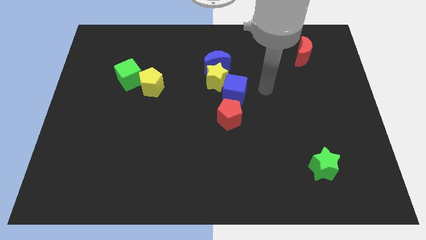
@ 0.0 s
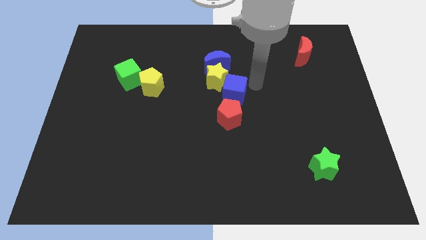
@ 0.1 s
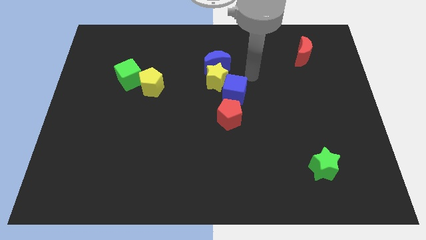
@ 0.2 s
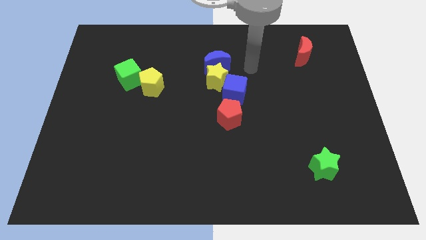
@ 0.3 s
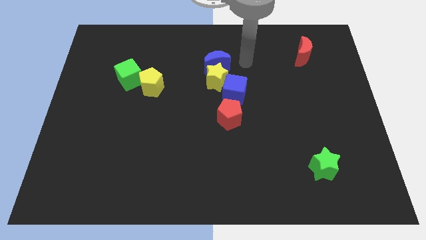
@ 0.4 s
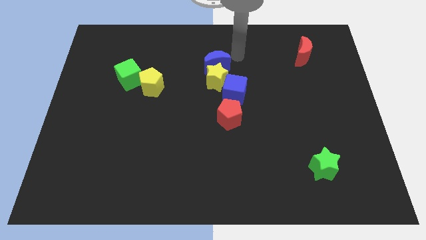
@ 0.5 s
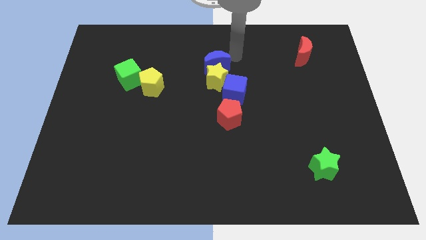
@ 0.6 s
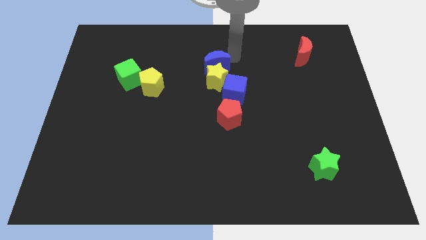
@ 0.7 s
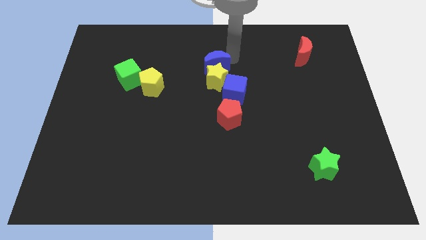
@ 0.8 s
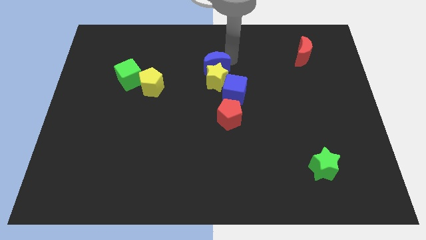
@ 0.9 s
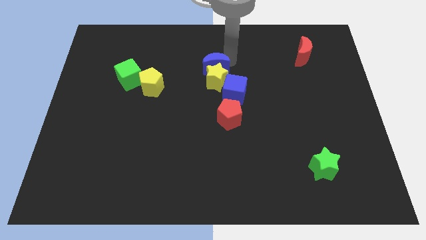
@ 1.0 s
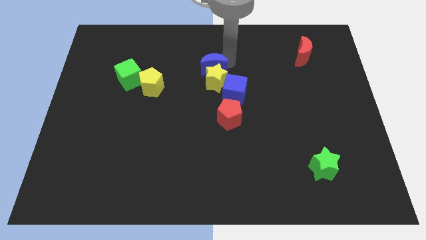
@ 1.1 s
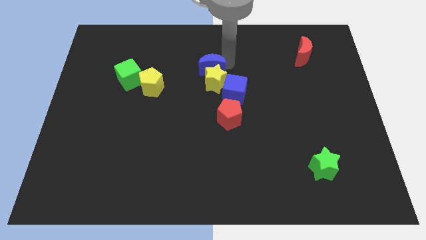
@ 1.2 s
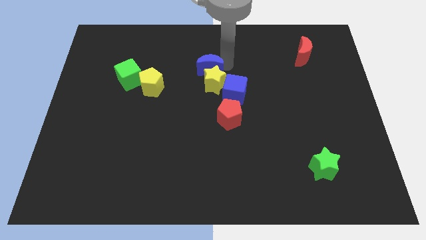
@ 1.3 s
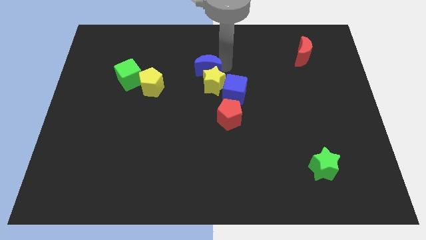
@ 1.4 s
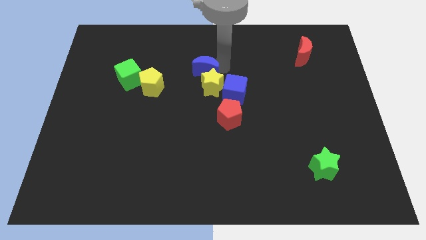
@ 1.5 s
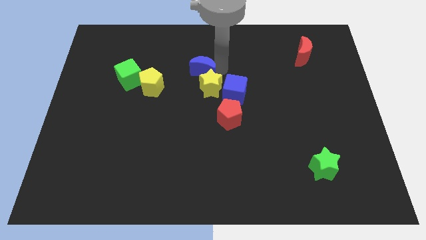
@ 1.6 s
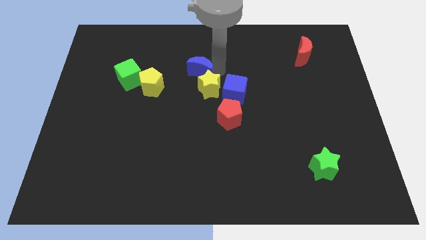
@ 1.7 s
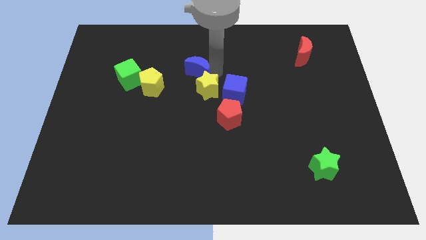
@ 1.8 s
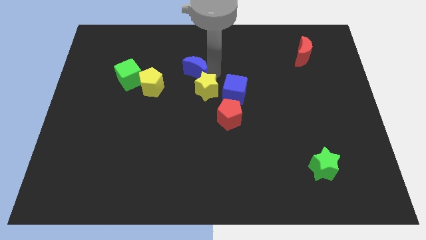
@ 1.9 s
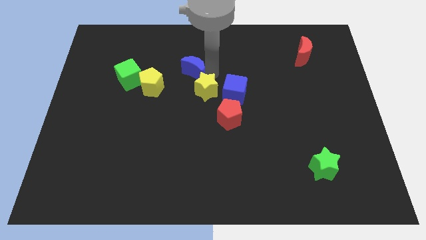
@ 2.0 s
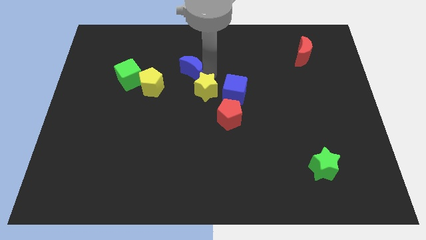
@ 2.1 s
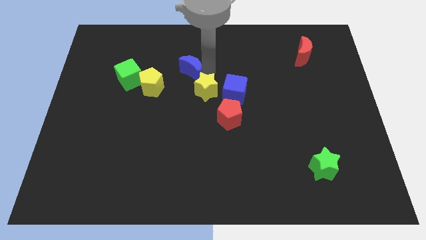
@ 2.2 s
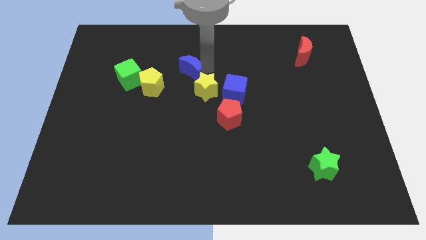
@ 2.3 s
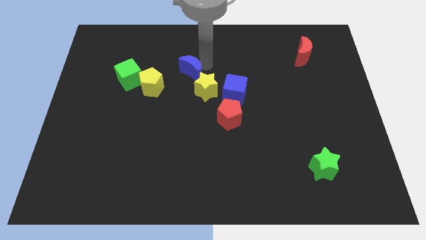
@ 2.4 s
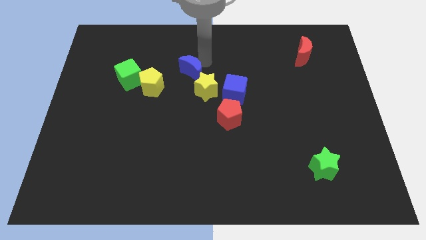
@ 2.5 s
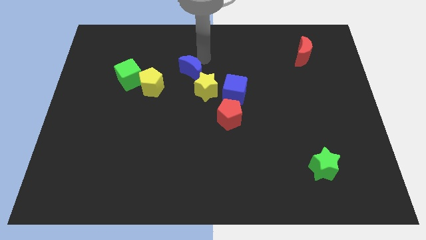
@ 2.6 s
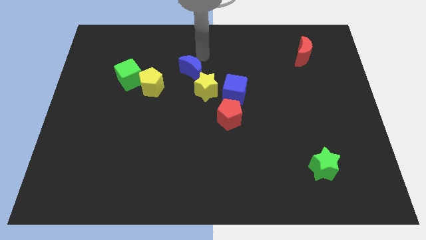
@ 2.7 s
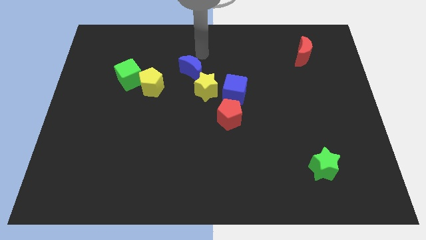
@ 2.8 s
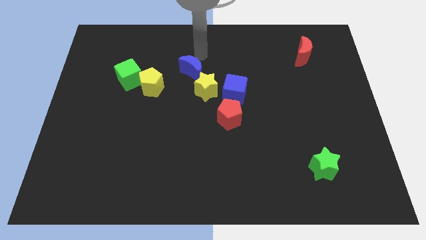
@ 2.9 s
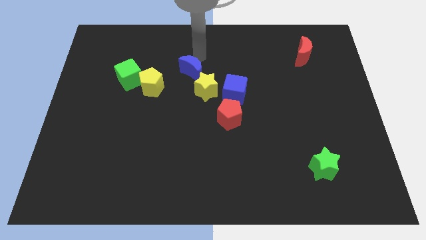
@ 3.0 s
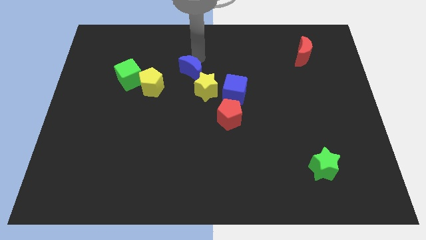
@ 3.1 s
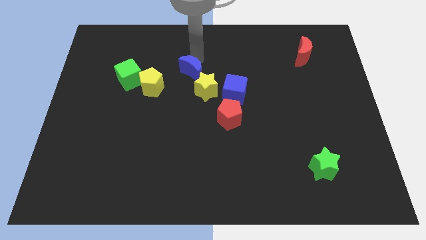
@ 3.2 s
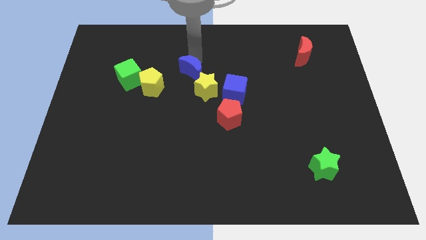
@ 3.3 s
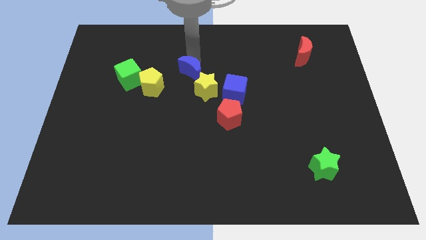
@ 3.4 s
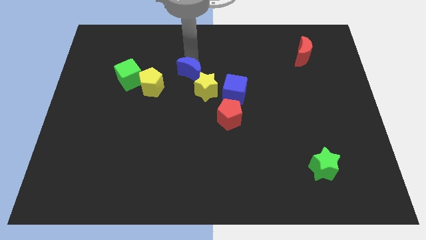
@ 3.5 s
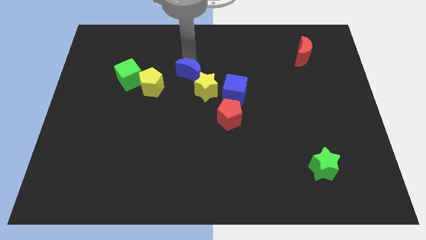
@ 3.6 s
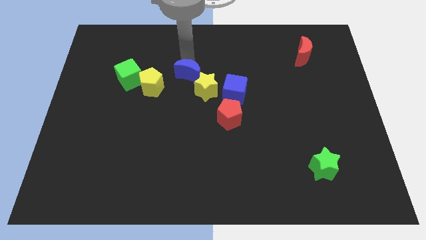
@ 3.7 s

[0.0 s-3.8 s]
push the blue moon slightly diagonally downwards and left

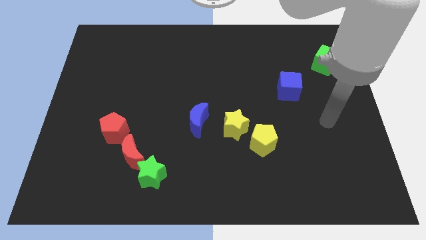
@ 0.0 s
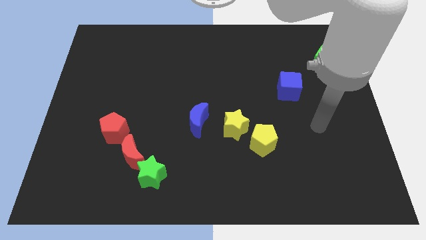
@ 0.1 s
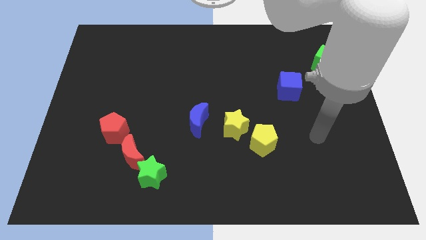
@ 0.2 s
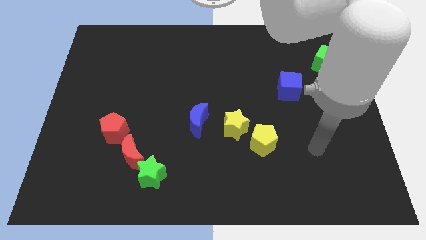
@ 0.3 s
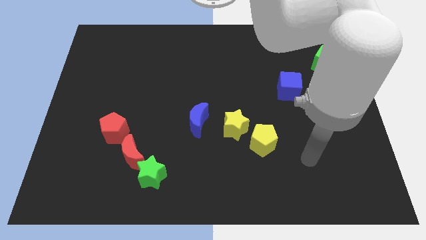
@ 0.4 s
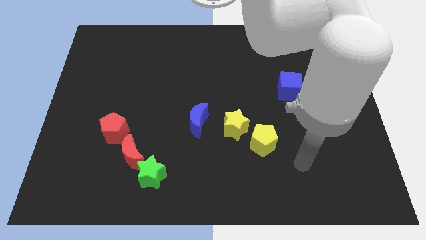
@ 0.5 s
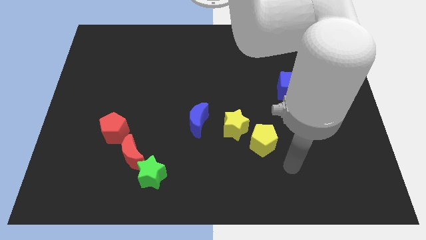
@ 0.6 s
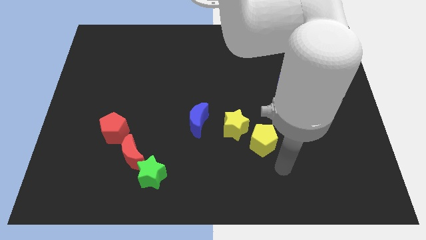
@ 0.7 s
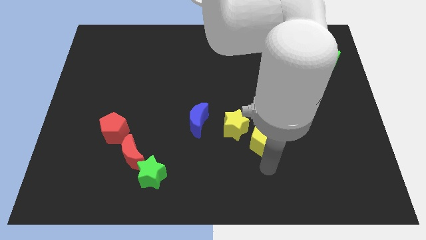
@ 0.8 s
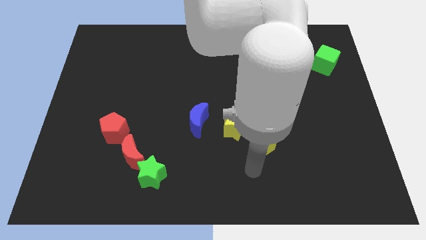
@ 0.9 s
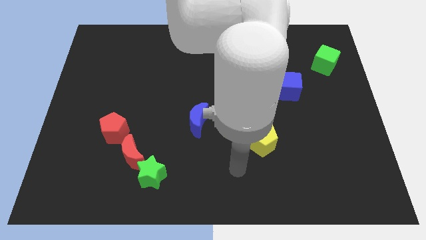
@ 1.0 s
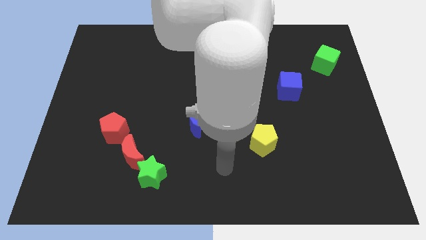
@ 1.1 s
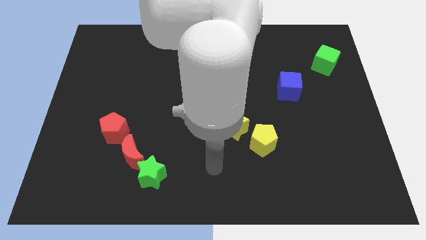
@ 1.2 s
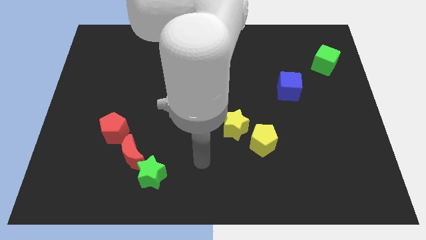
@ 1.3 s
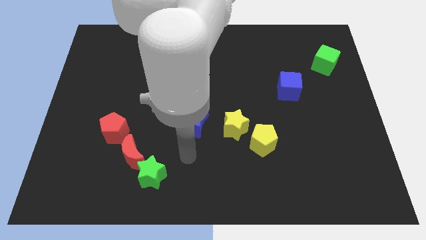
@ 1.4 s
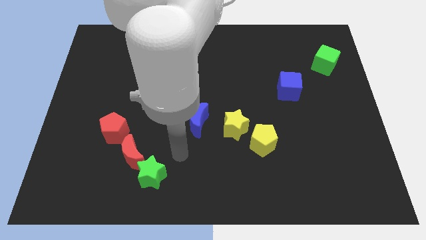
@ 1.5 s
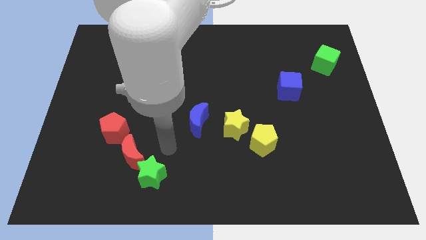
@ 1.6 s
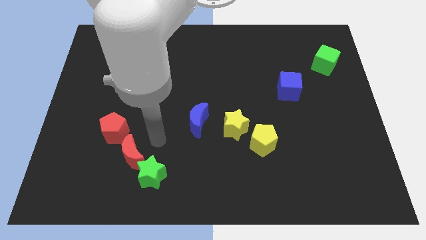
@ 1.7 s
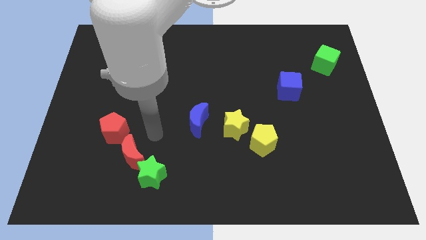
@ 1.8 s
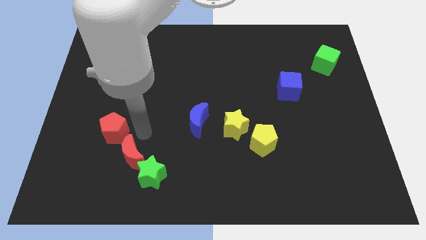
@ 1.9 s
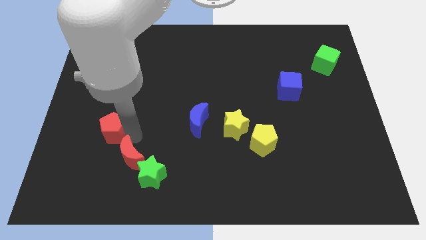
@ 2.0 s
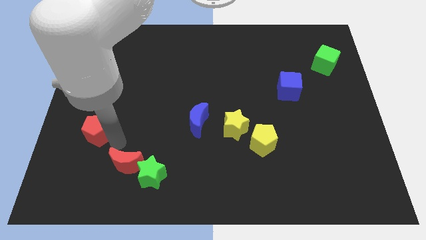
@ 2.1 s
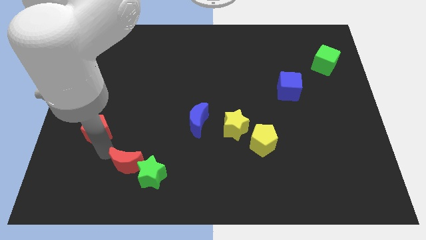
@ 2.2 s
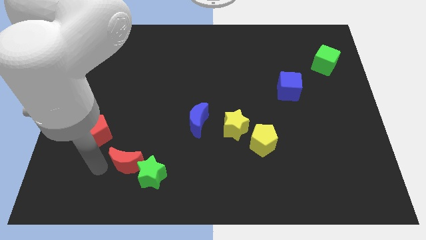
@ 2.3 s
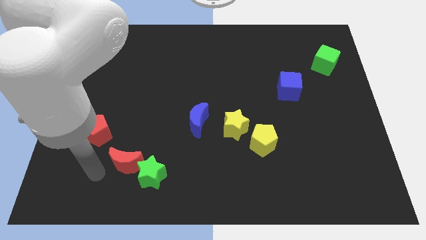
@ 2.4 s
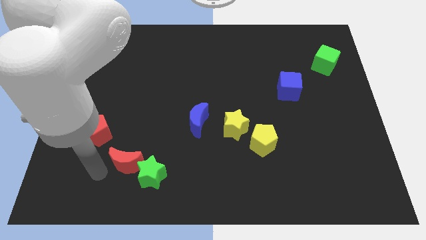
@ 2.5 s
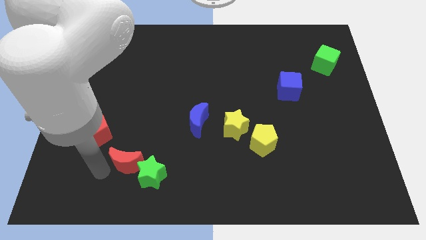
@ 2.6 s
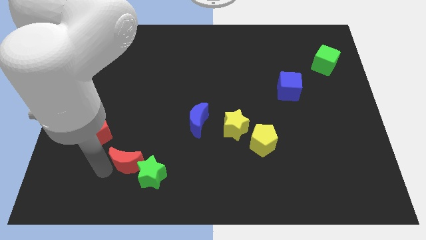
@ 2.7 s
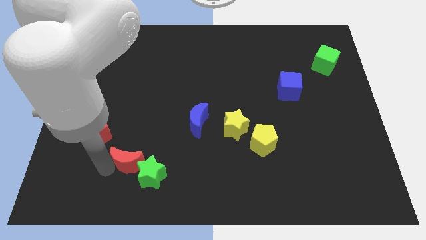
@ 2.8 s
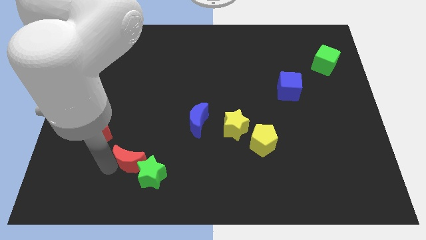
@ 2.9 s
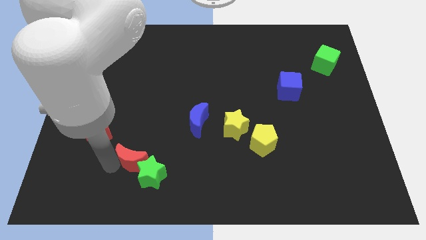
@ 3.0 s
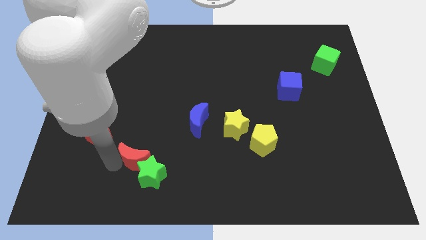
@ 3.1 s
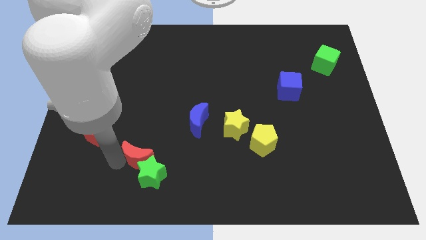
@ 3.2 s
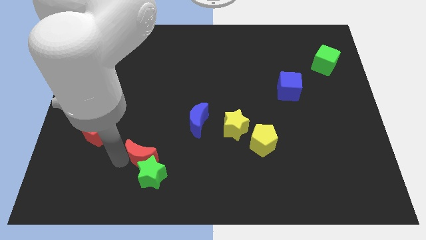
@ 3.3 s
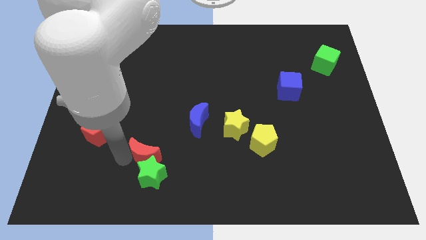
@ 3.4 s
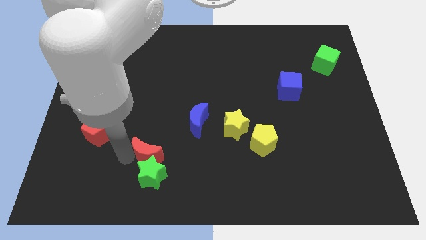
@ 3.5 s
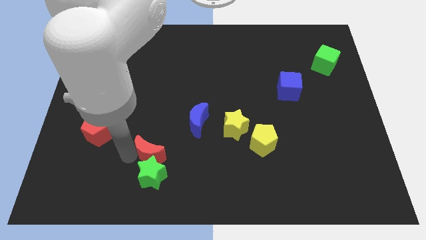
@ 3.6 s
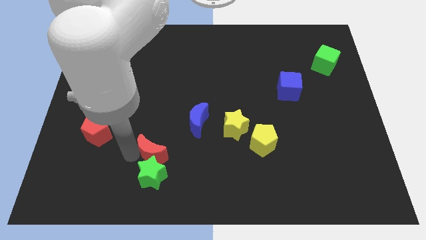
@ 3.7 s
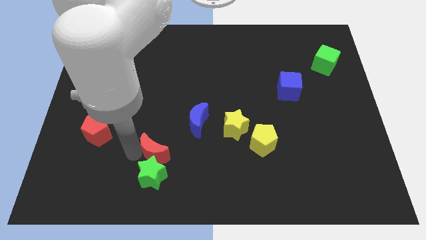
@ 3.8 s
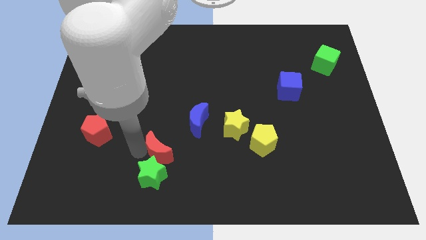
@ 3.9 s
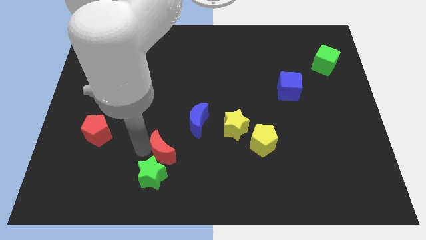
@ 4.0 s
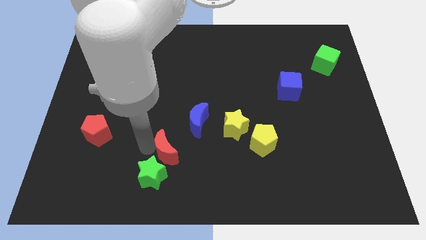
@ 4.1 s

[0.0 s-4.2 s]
slightly slide the red moon right
